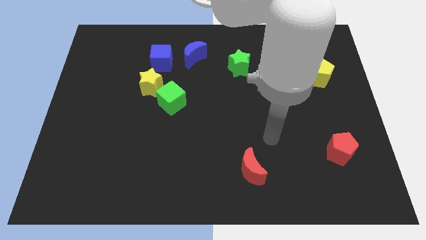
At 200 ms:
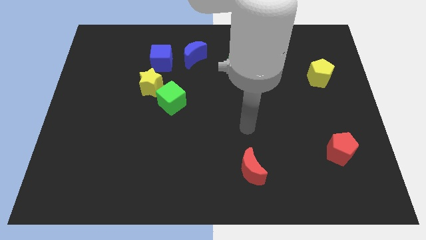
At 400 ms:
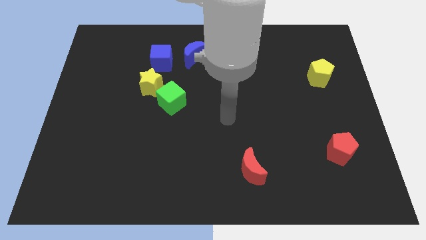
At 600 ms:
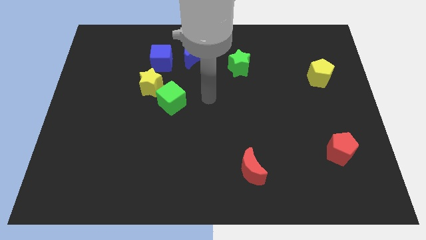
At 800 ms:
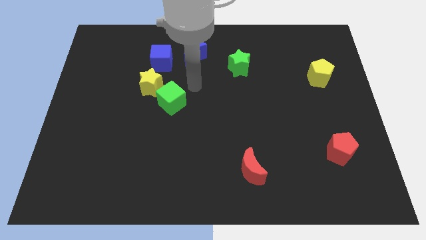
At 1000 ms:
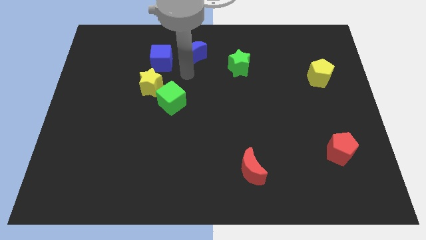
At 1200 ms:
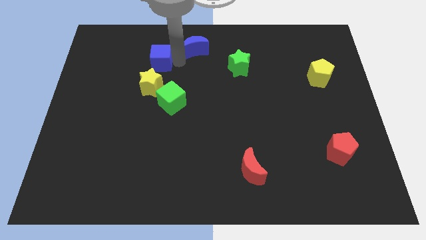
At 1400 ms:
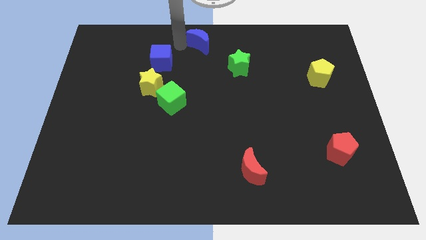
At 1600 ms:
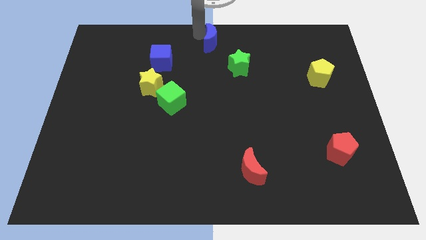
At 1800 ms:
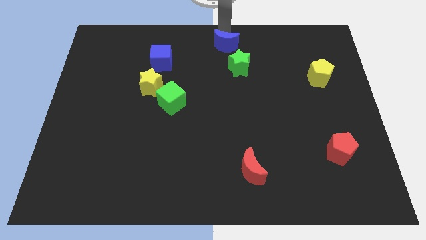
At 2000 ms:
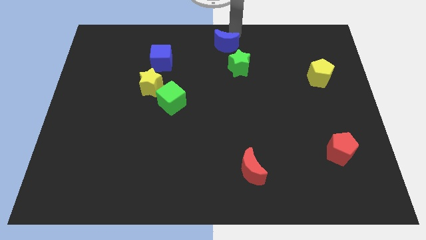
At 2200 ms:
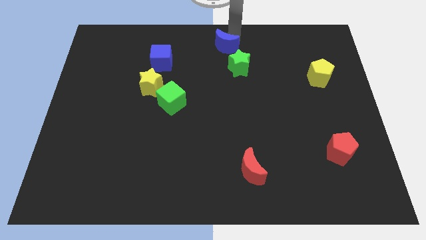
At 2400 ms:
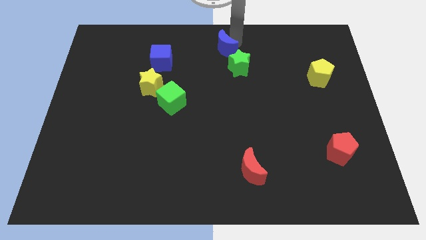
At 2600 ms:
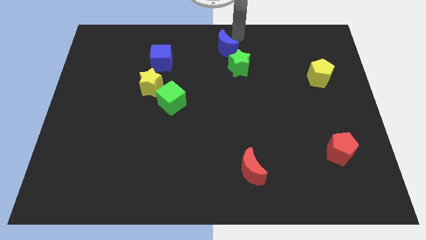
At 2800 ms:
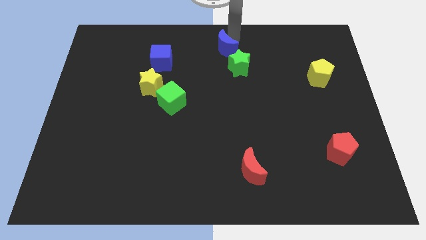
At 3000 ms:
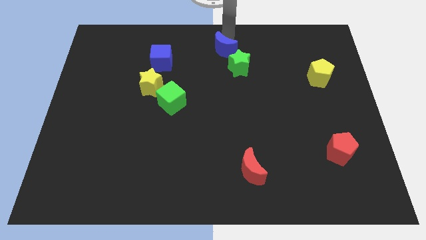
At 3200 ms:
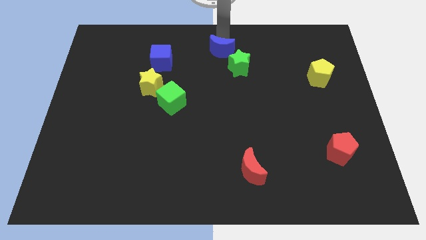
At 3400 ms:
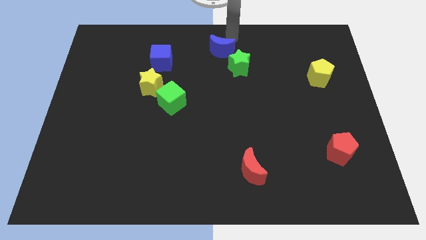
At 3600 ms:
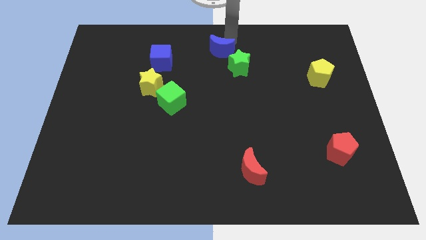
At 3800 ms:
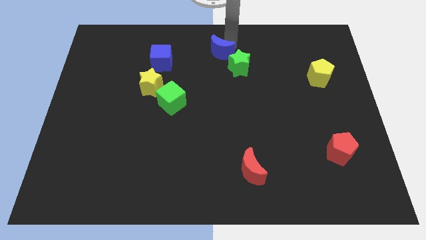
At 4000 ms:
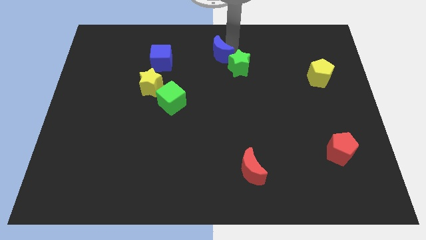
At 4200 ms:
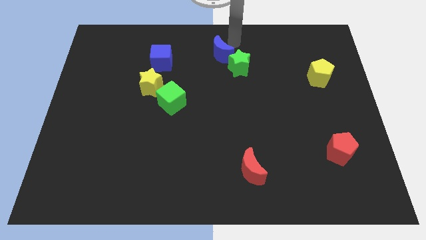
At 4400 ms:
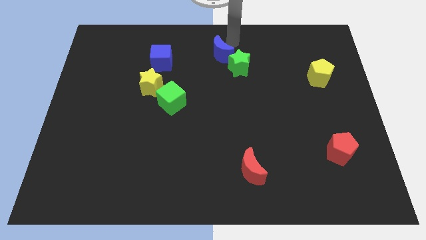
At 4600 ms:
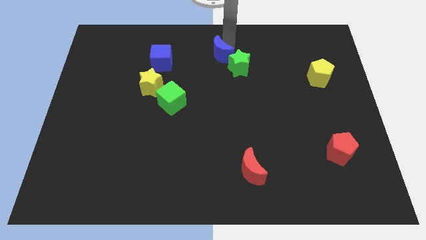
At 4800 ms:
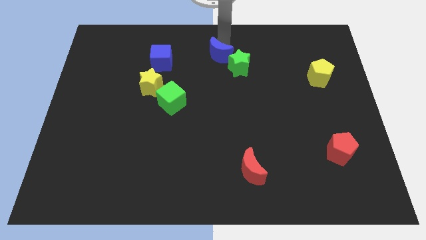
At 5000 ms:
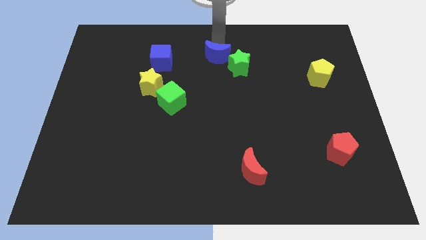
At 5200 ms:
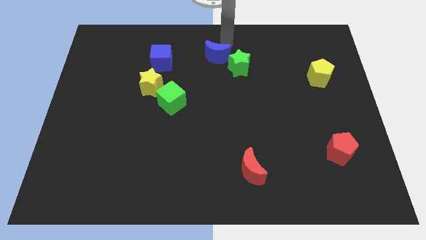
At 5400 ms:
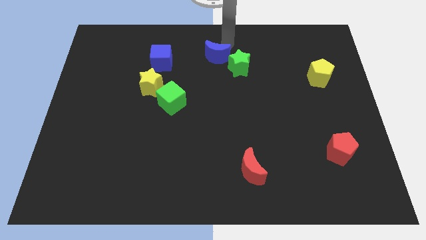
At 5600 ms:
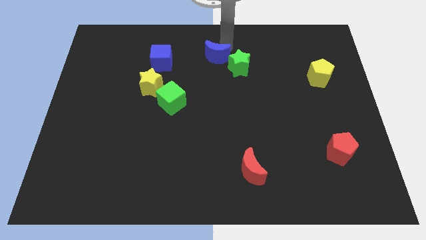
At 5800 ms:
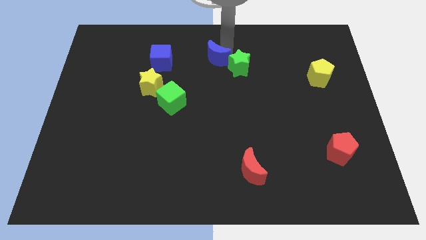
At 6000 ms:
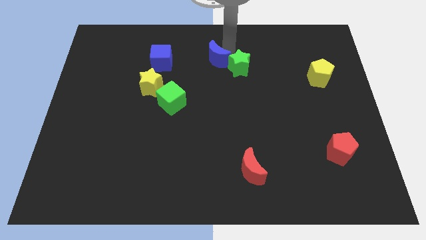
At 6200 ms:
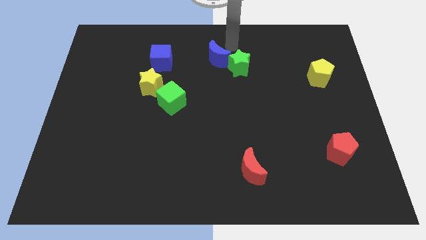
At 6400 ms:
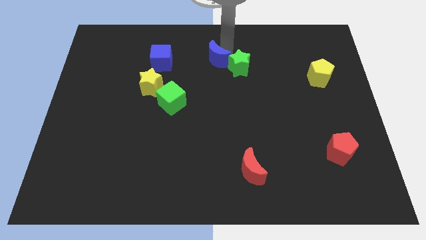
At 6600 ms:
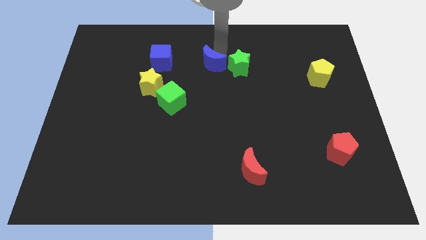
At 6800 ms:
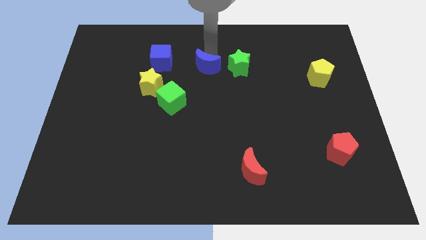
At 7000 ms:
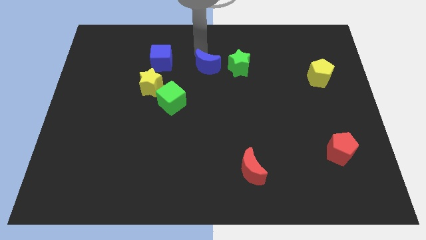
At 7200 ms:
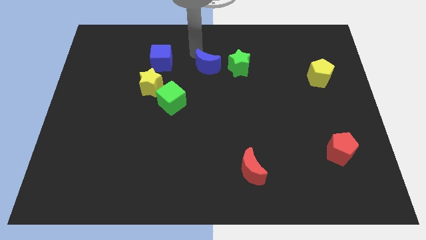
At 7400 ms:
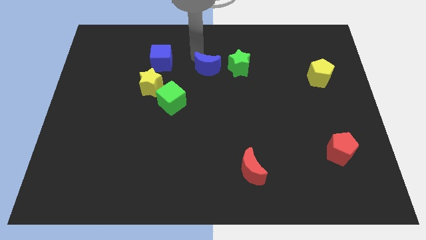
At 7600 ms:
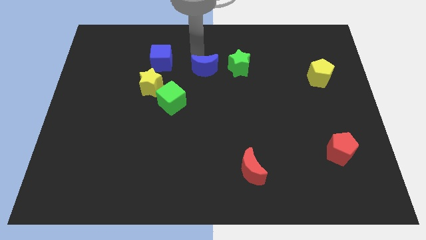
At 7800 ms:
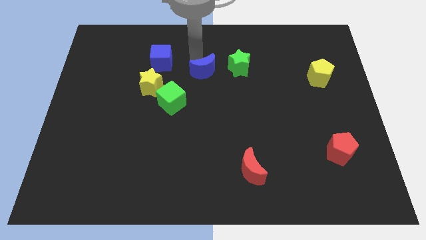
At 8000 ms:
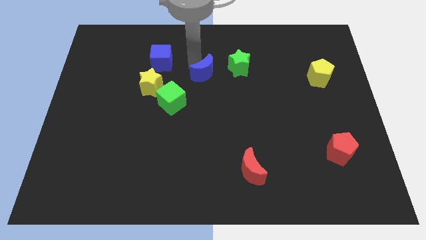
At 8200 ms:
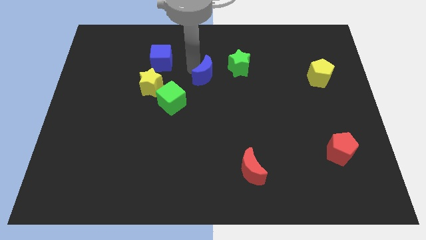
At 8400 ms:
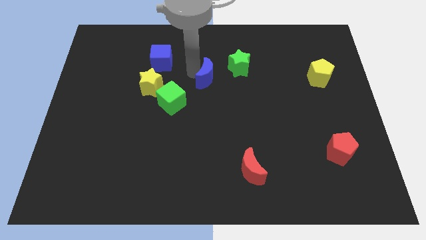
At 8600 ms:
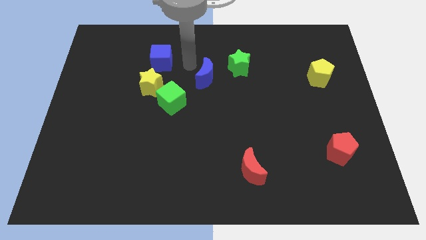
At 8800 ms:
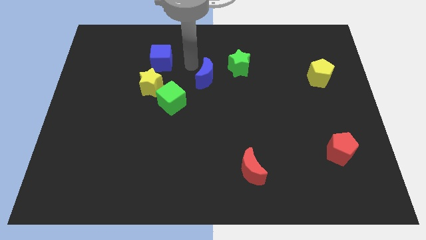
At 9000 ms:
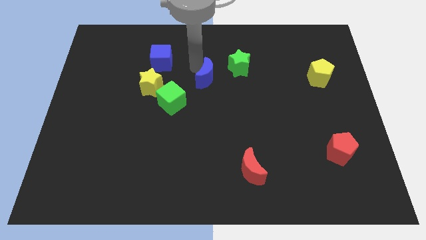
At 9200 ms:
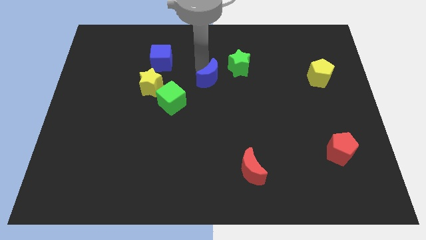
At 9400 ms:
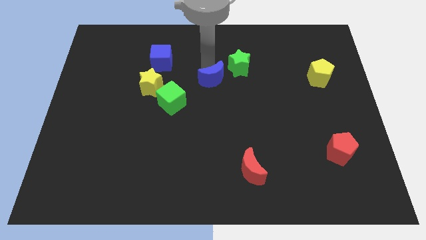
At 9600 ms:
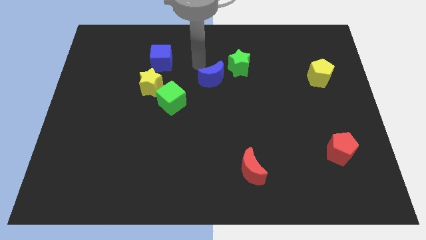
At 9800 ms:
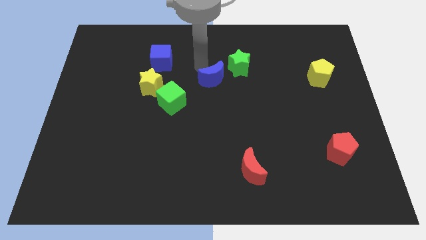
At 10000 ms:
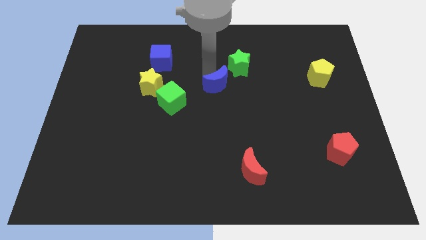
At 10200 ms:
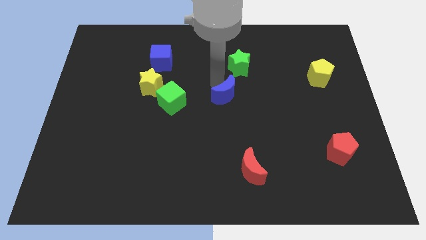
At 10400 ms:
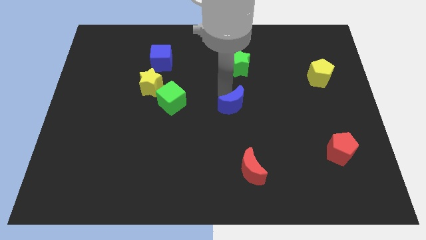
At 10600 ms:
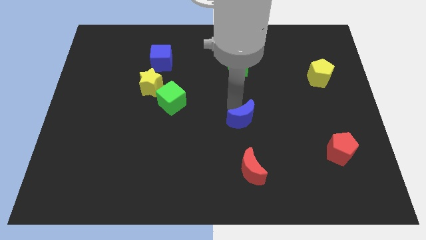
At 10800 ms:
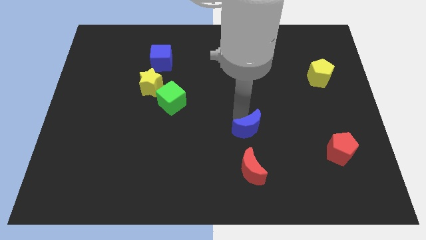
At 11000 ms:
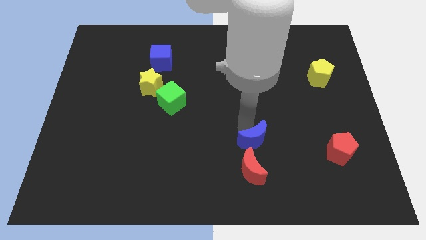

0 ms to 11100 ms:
push the blue moon to the top right side of the red moon

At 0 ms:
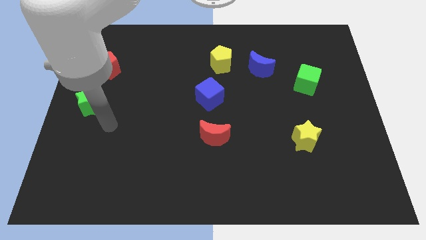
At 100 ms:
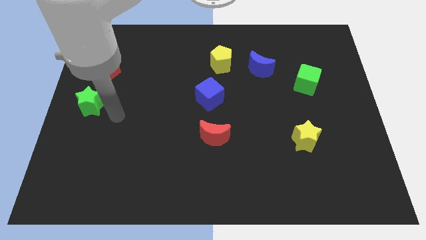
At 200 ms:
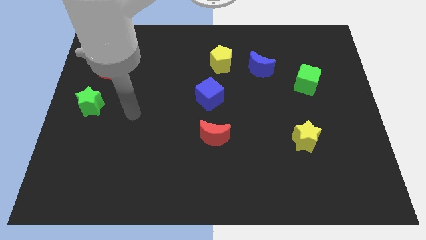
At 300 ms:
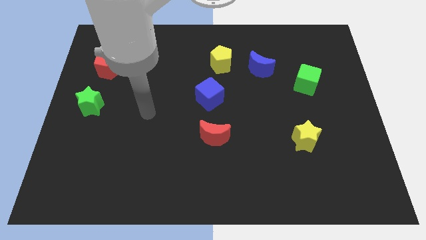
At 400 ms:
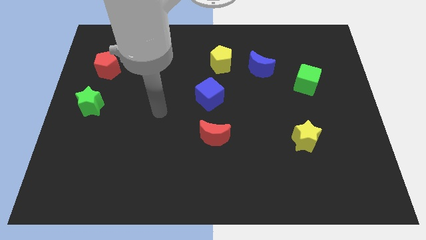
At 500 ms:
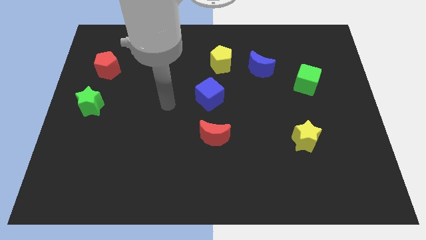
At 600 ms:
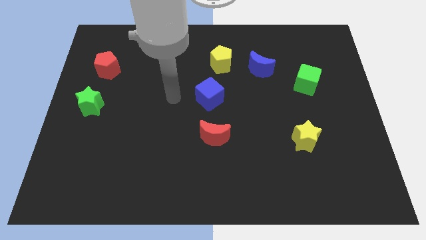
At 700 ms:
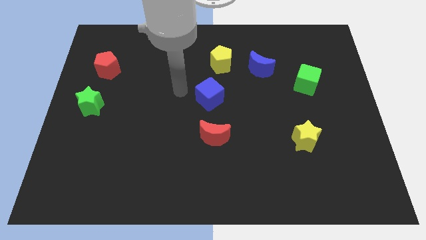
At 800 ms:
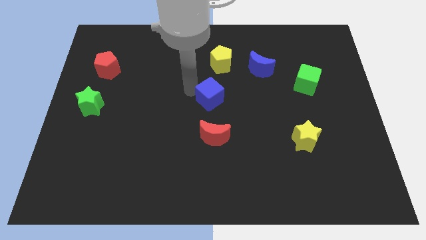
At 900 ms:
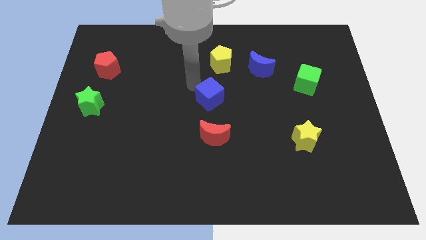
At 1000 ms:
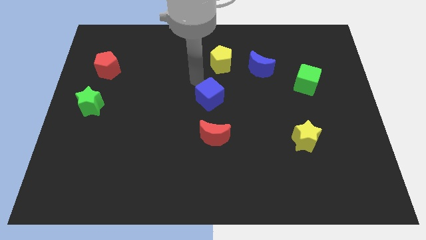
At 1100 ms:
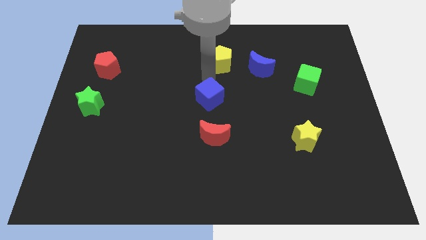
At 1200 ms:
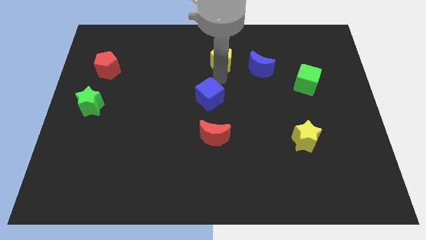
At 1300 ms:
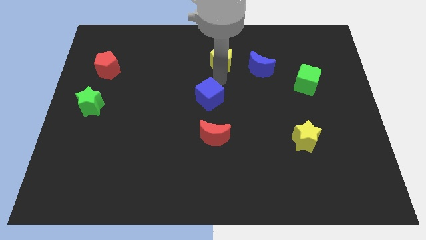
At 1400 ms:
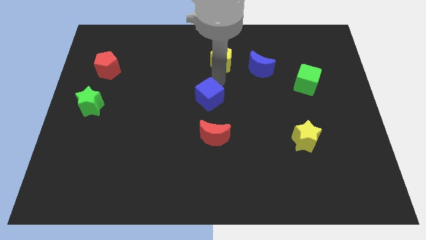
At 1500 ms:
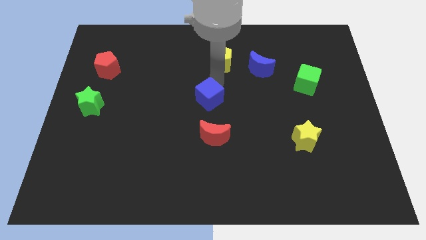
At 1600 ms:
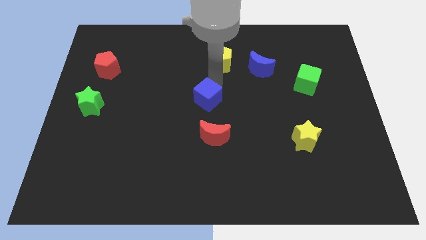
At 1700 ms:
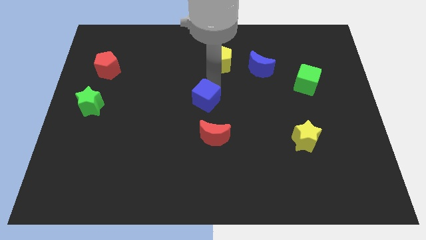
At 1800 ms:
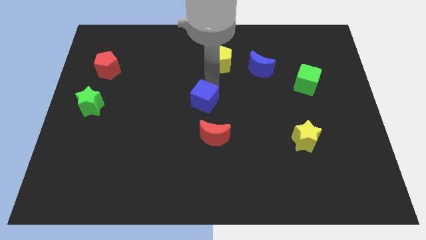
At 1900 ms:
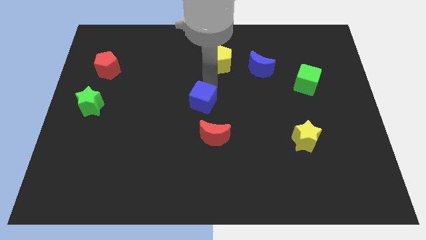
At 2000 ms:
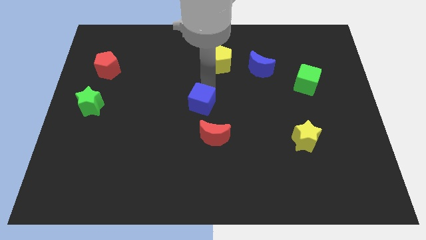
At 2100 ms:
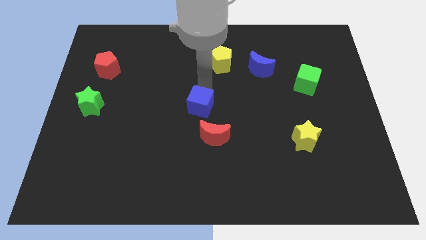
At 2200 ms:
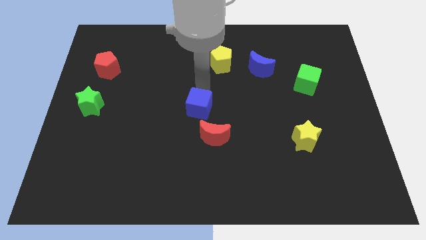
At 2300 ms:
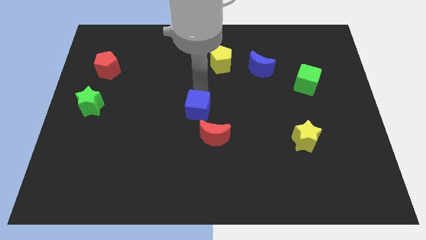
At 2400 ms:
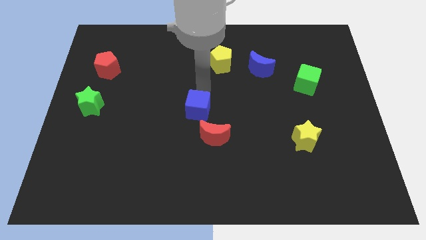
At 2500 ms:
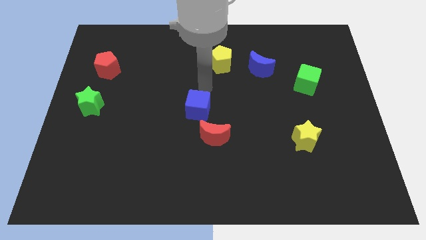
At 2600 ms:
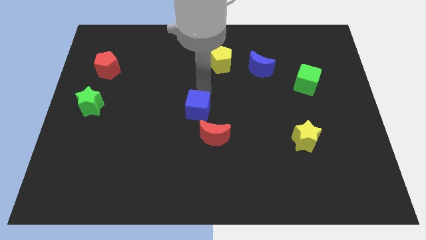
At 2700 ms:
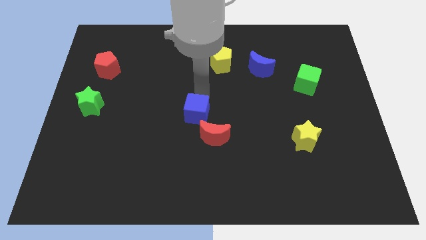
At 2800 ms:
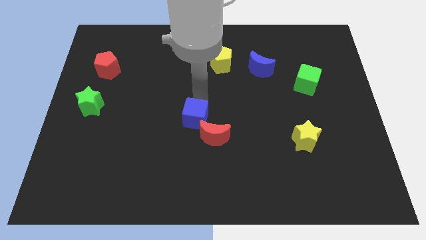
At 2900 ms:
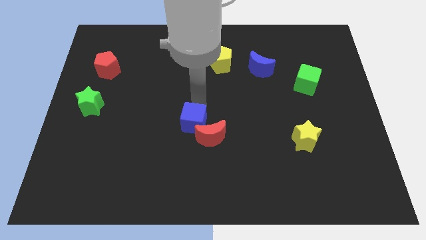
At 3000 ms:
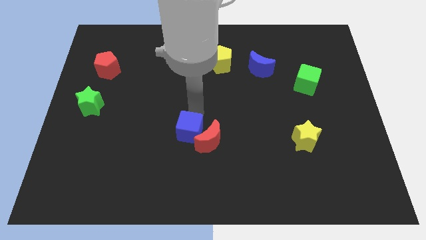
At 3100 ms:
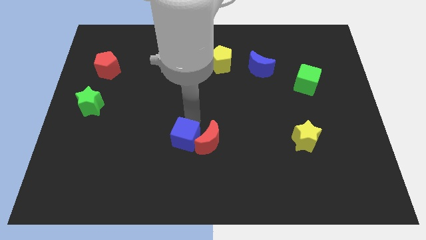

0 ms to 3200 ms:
move the blue cube to the bottom left side of the red moon
